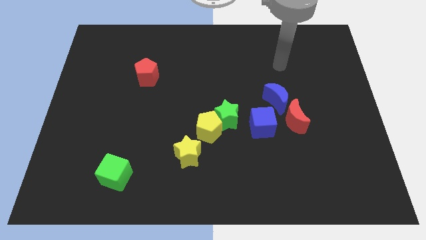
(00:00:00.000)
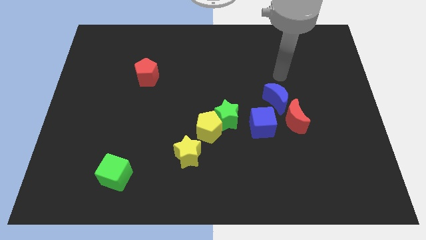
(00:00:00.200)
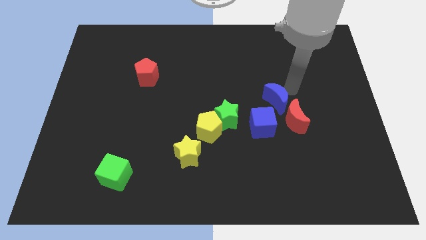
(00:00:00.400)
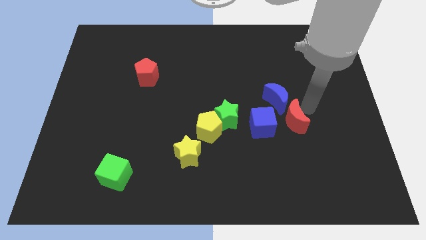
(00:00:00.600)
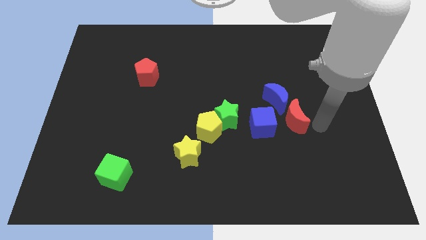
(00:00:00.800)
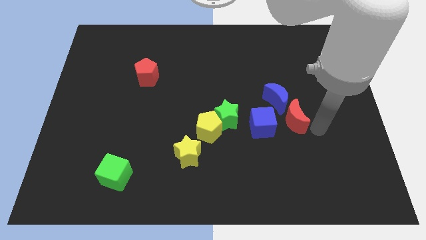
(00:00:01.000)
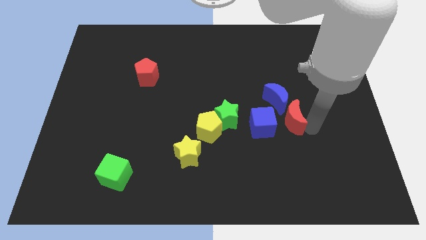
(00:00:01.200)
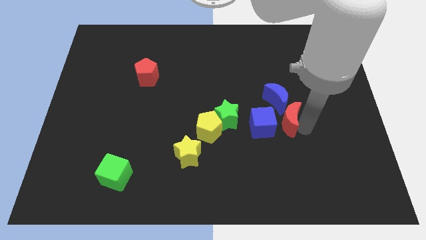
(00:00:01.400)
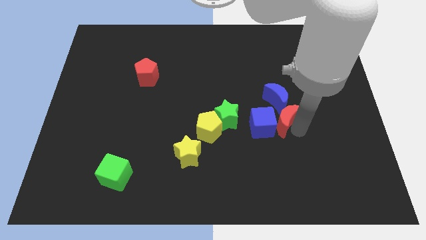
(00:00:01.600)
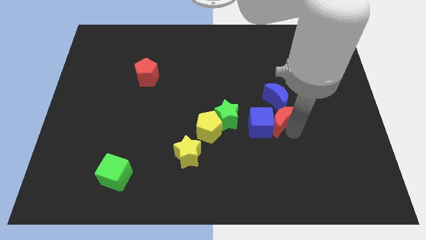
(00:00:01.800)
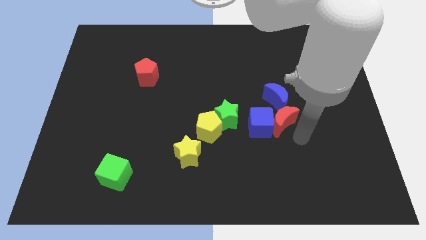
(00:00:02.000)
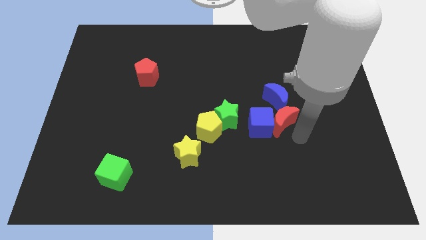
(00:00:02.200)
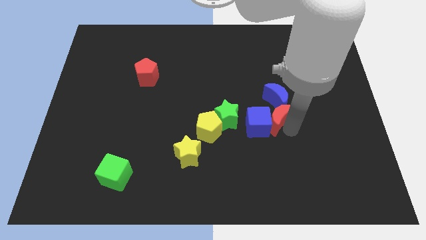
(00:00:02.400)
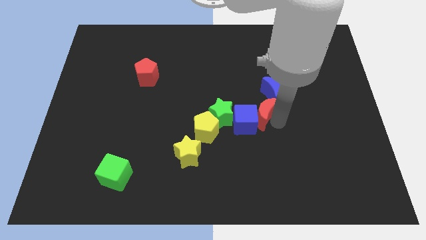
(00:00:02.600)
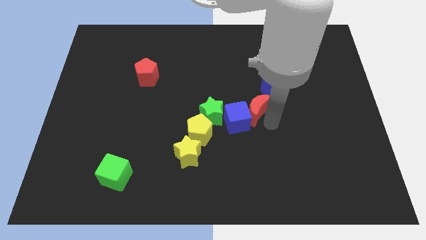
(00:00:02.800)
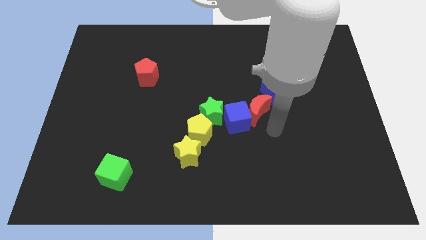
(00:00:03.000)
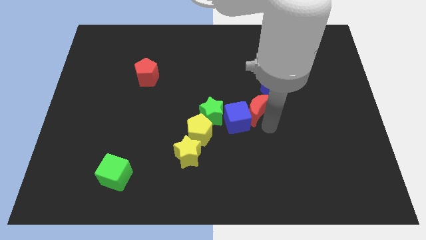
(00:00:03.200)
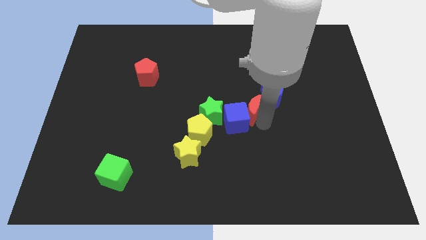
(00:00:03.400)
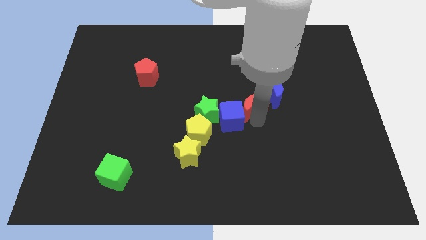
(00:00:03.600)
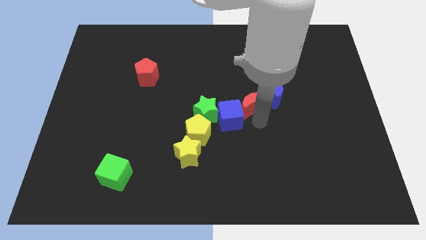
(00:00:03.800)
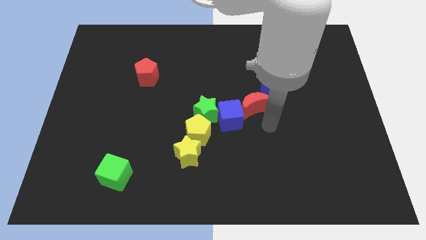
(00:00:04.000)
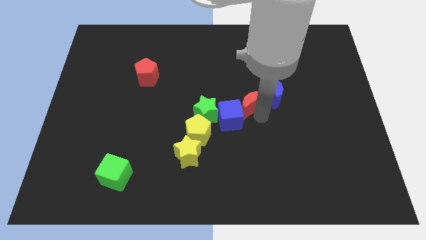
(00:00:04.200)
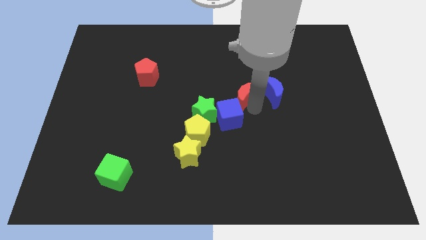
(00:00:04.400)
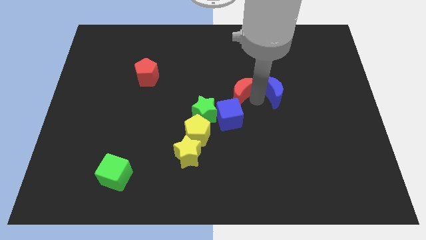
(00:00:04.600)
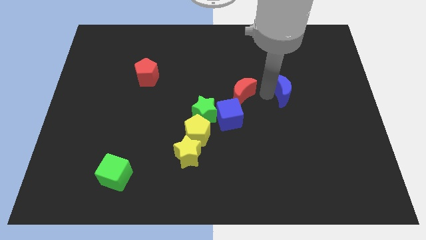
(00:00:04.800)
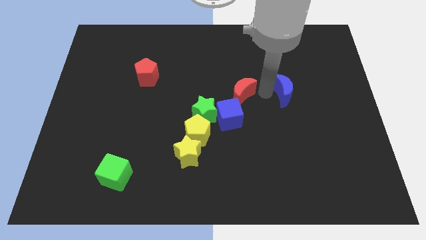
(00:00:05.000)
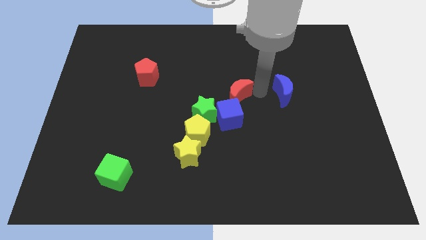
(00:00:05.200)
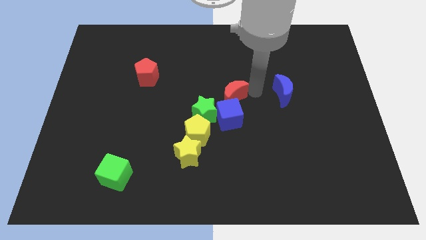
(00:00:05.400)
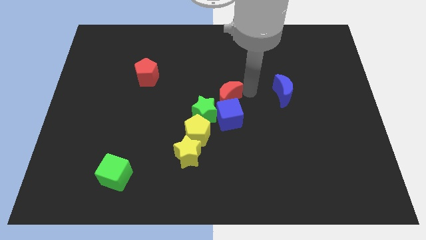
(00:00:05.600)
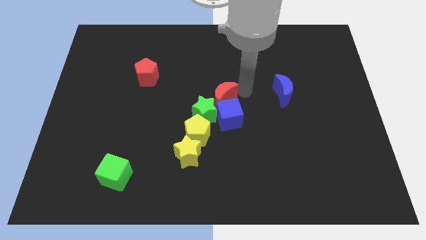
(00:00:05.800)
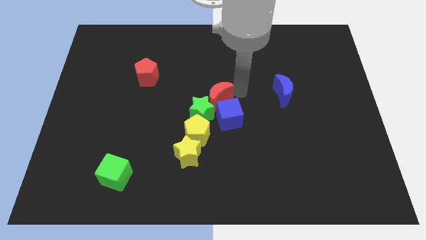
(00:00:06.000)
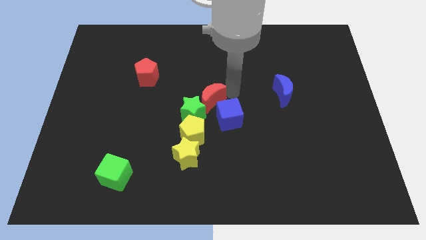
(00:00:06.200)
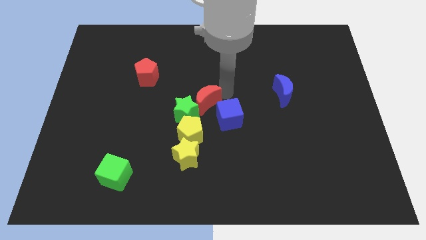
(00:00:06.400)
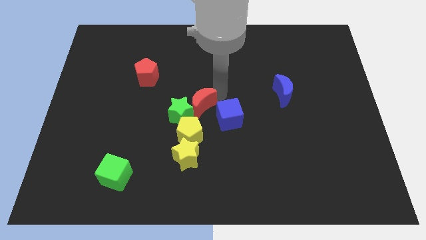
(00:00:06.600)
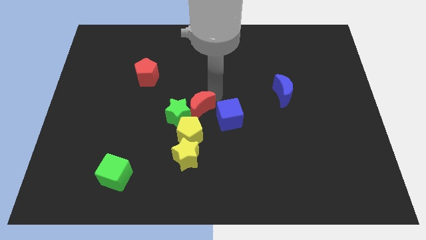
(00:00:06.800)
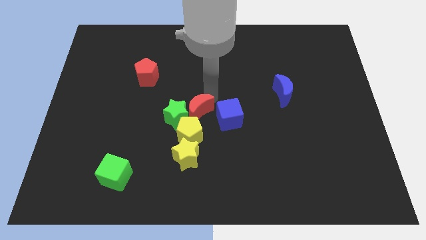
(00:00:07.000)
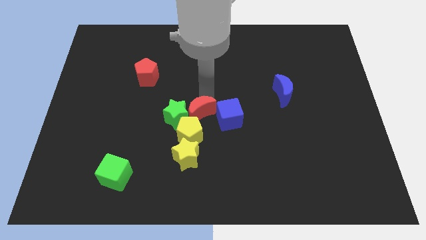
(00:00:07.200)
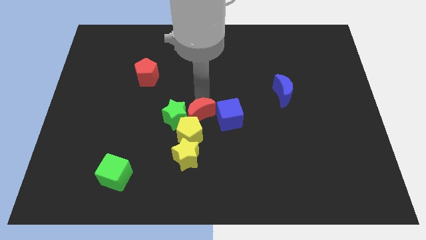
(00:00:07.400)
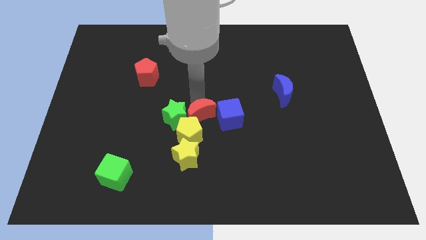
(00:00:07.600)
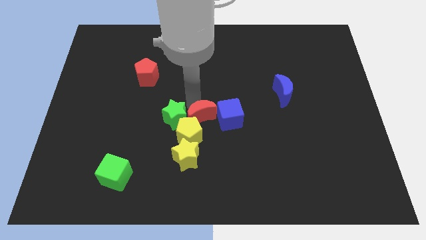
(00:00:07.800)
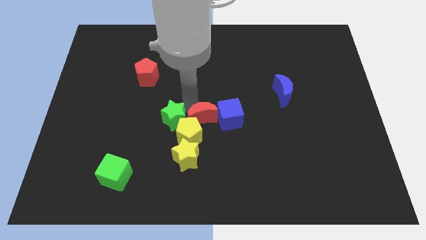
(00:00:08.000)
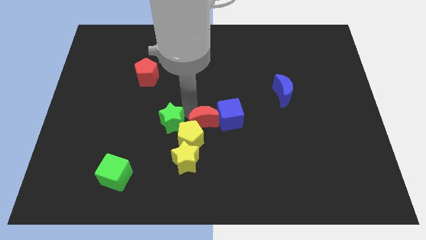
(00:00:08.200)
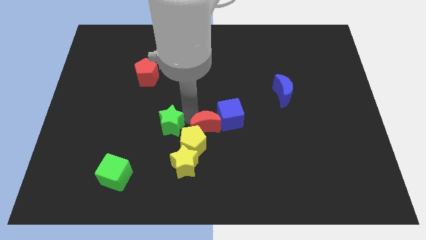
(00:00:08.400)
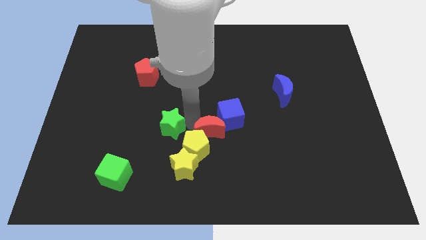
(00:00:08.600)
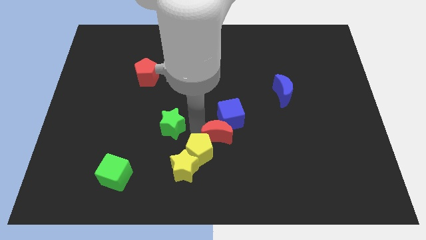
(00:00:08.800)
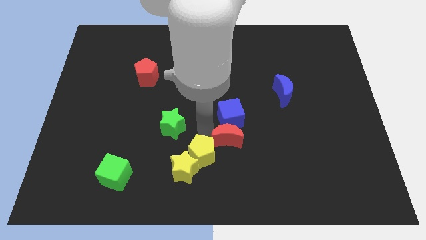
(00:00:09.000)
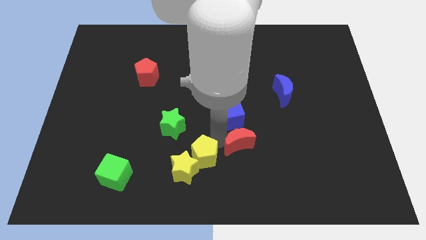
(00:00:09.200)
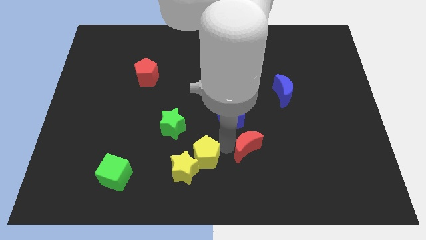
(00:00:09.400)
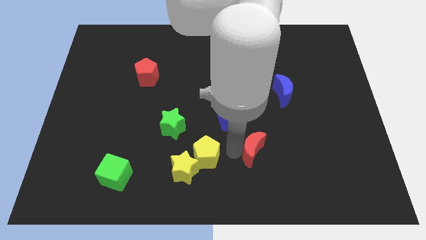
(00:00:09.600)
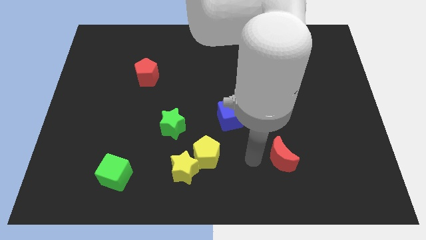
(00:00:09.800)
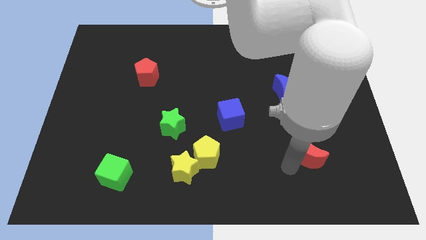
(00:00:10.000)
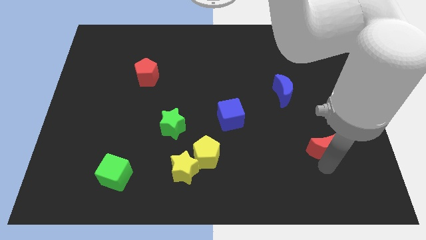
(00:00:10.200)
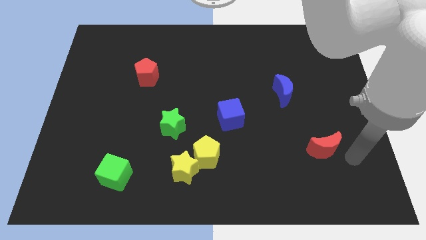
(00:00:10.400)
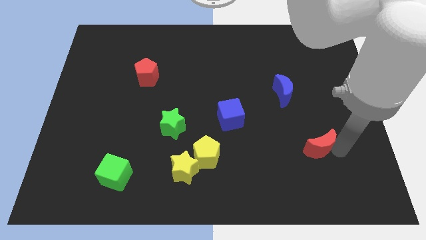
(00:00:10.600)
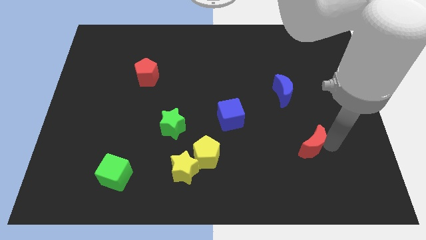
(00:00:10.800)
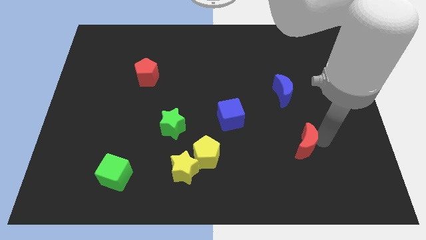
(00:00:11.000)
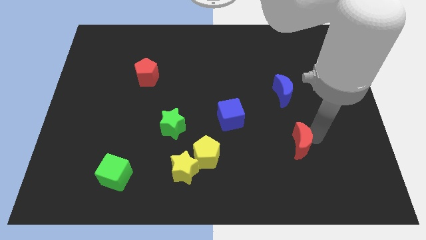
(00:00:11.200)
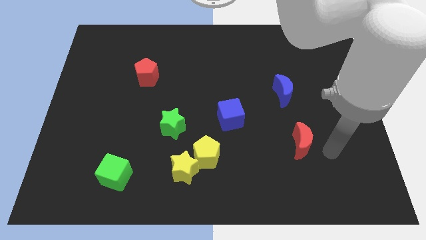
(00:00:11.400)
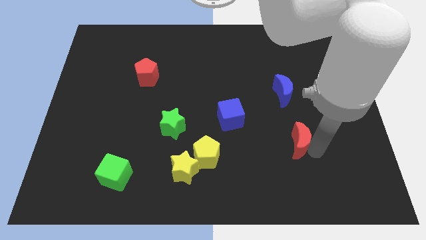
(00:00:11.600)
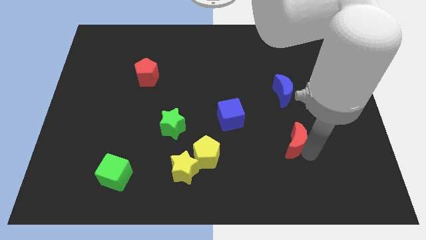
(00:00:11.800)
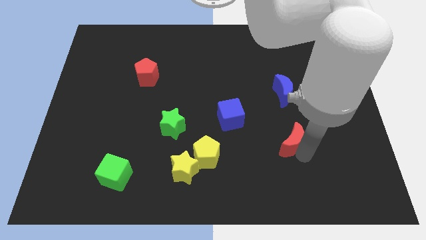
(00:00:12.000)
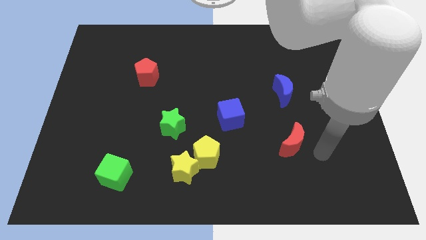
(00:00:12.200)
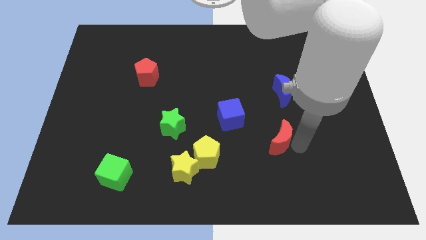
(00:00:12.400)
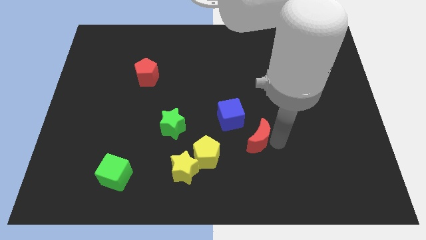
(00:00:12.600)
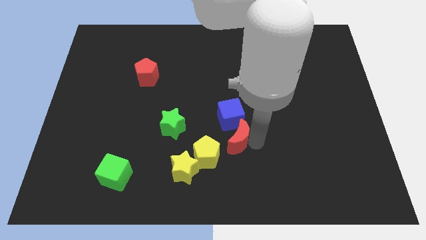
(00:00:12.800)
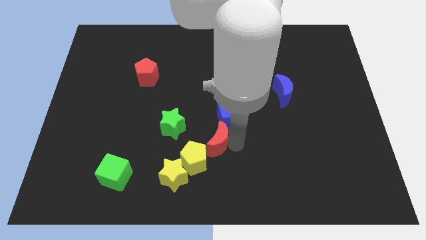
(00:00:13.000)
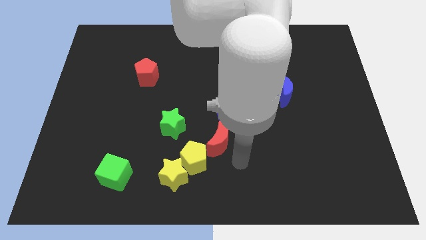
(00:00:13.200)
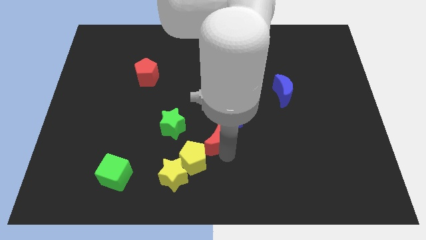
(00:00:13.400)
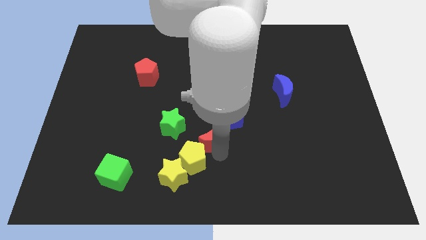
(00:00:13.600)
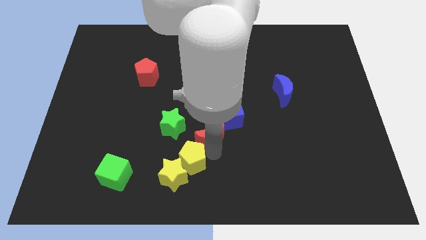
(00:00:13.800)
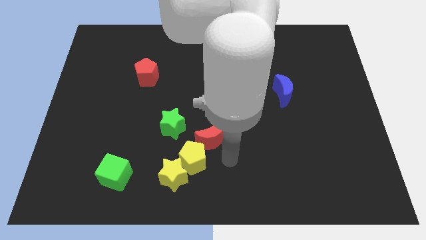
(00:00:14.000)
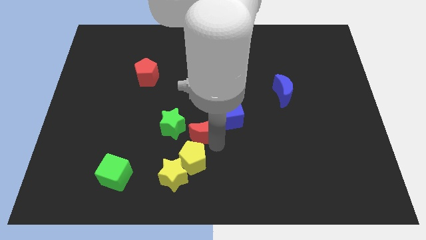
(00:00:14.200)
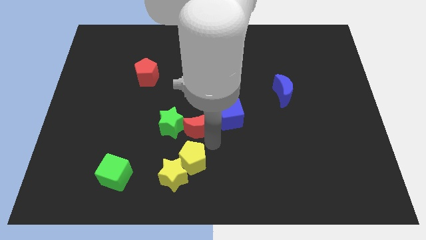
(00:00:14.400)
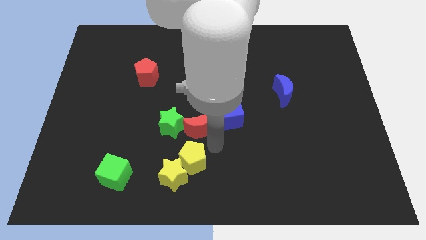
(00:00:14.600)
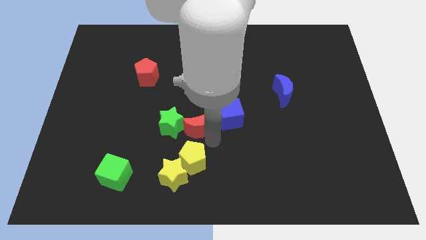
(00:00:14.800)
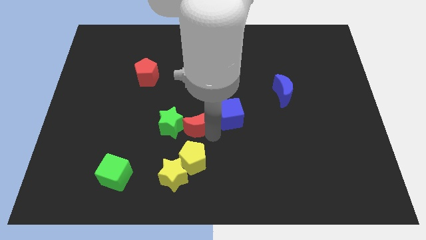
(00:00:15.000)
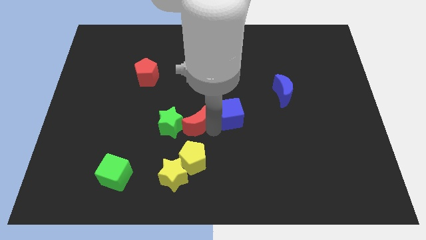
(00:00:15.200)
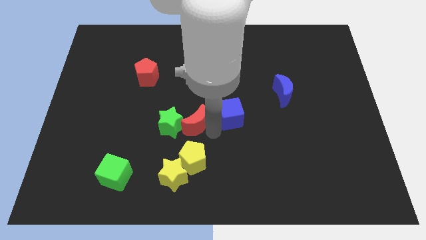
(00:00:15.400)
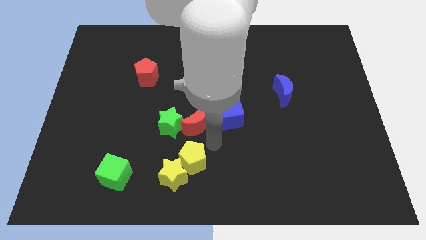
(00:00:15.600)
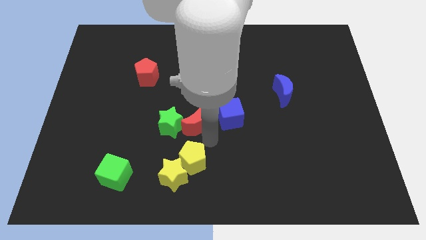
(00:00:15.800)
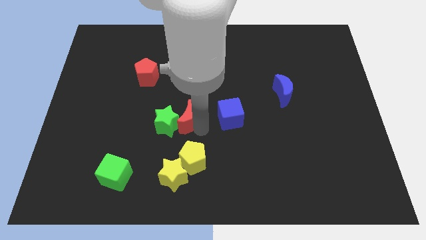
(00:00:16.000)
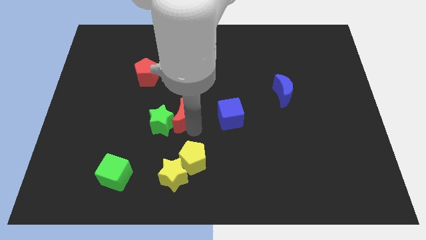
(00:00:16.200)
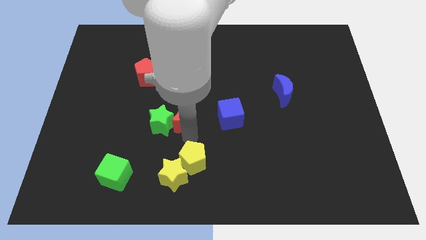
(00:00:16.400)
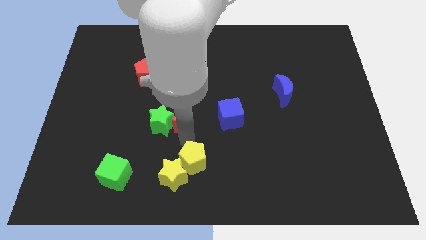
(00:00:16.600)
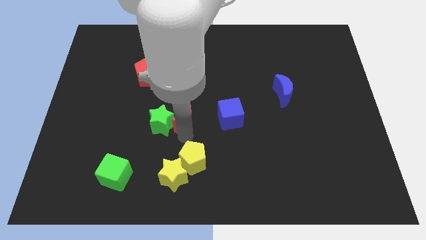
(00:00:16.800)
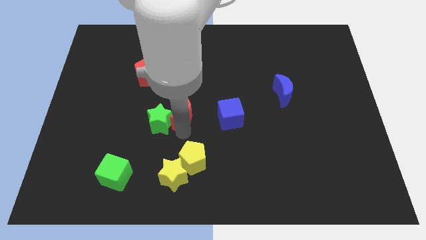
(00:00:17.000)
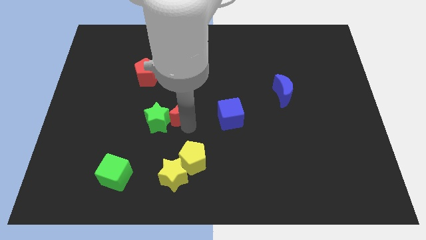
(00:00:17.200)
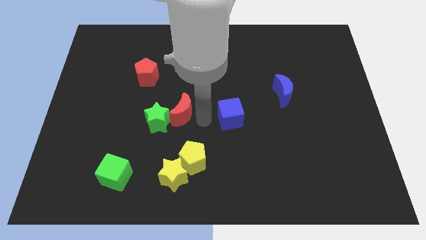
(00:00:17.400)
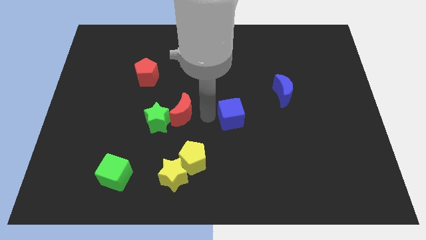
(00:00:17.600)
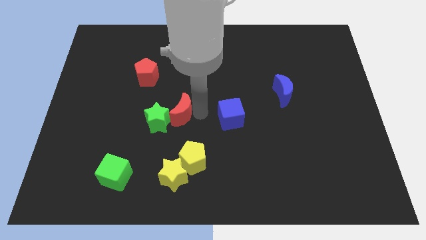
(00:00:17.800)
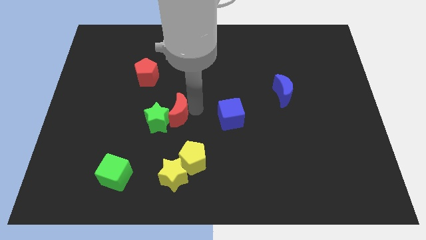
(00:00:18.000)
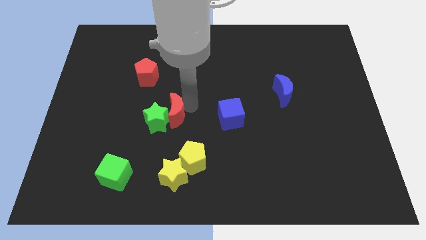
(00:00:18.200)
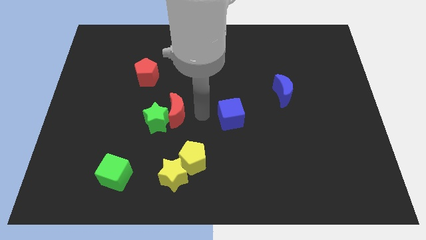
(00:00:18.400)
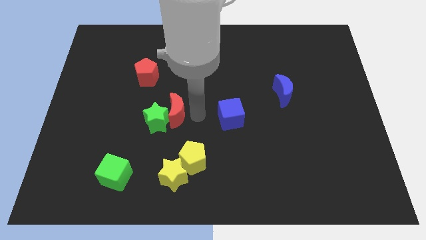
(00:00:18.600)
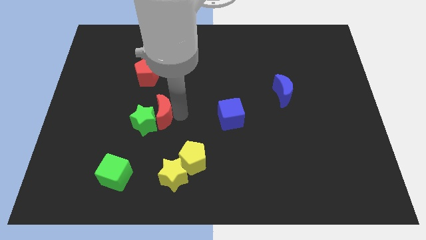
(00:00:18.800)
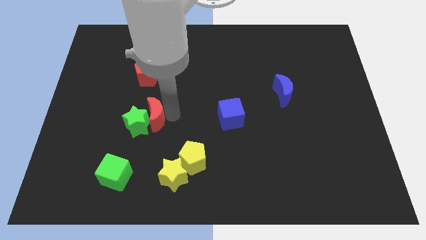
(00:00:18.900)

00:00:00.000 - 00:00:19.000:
move the red moon below the red pentagon
